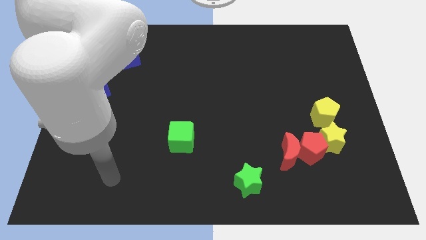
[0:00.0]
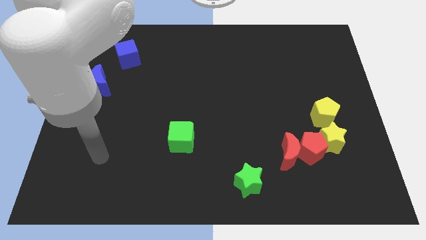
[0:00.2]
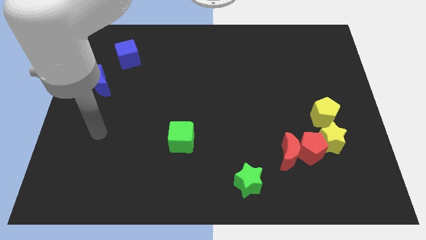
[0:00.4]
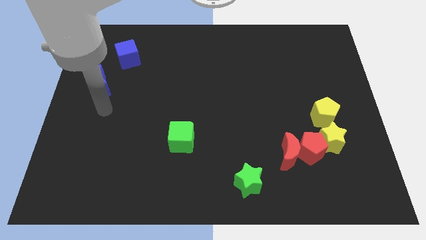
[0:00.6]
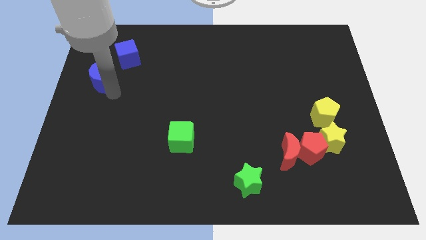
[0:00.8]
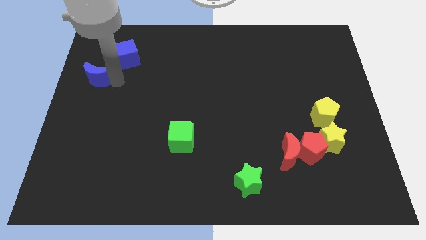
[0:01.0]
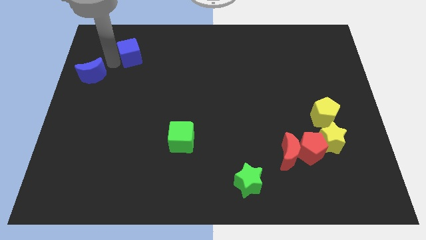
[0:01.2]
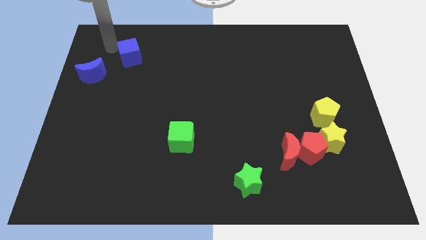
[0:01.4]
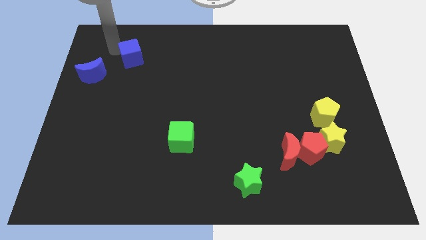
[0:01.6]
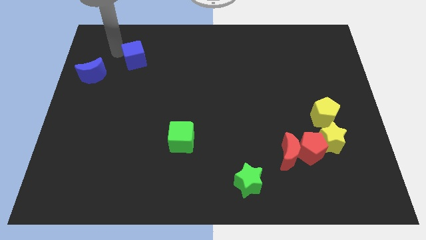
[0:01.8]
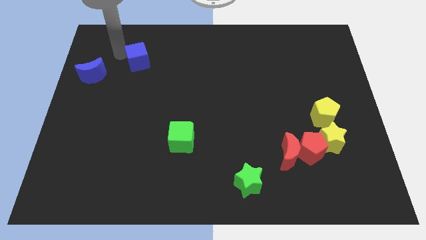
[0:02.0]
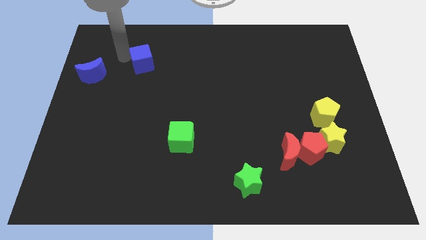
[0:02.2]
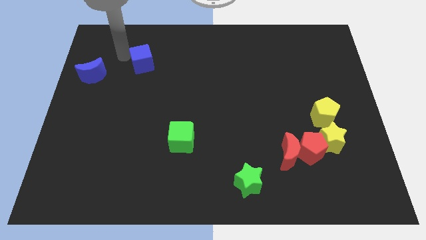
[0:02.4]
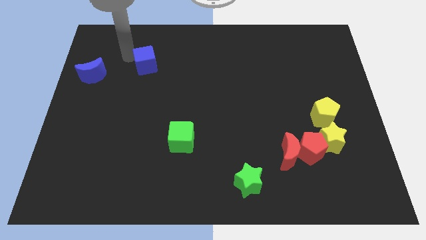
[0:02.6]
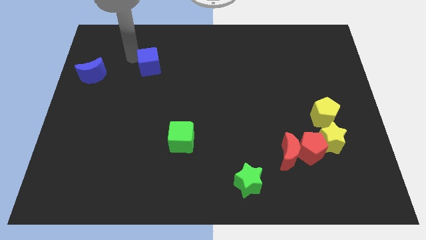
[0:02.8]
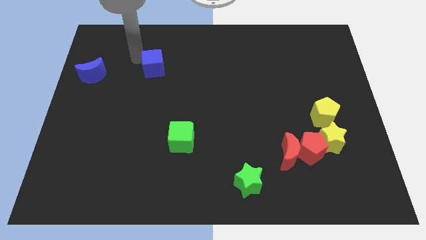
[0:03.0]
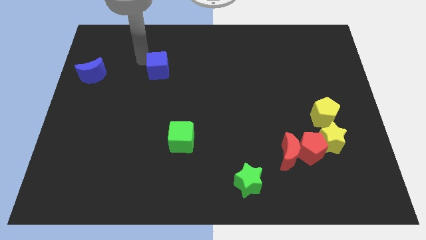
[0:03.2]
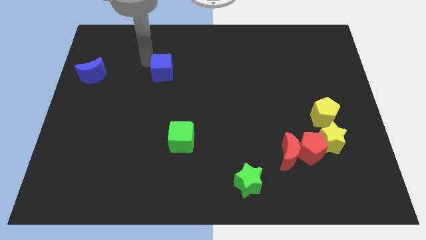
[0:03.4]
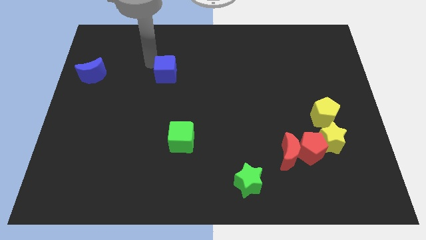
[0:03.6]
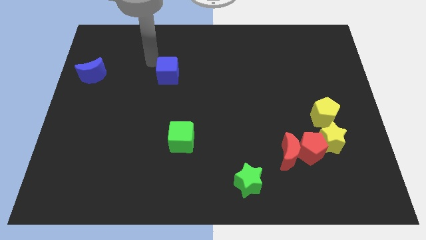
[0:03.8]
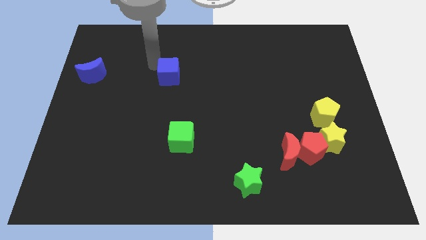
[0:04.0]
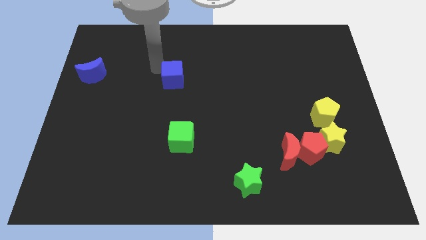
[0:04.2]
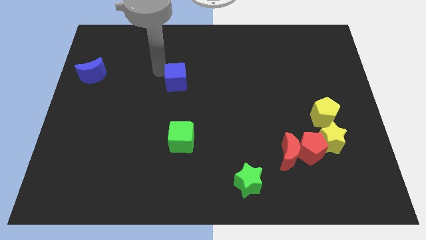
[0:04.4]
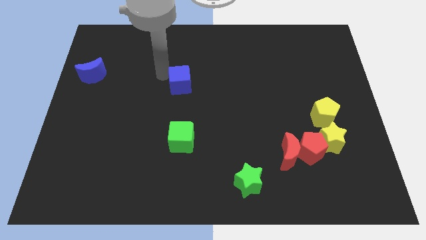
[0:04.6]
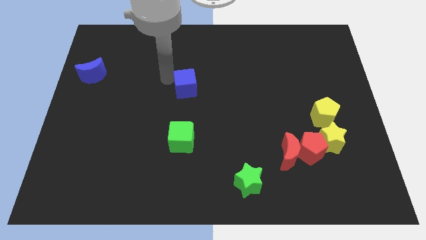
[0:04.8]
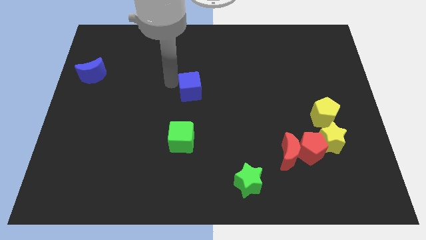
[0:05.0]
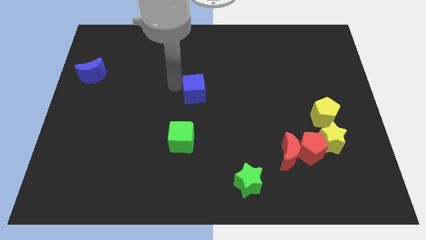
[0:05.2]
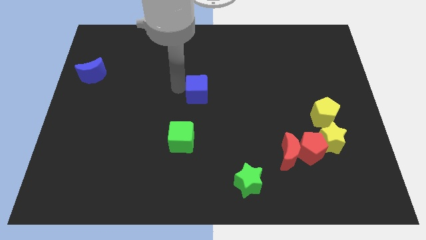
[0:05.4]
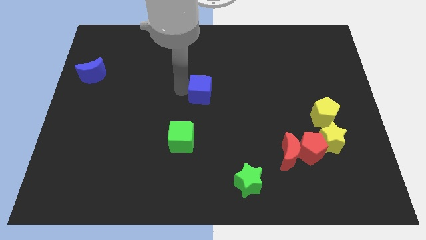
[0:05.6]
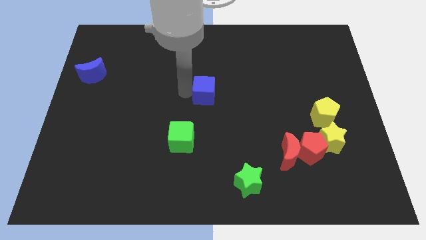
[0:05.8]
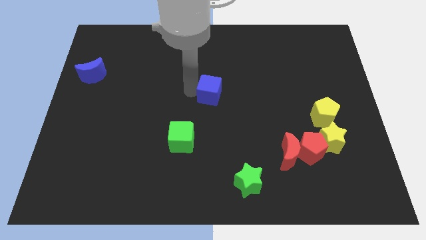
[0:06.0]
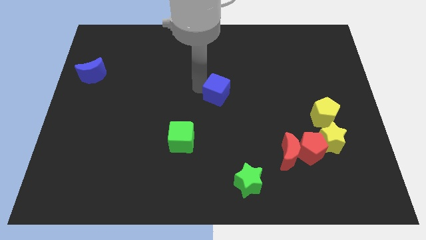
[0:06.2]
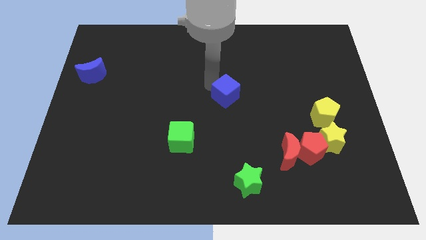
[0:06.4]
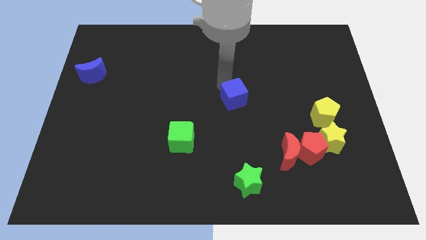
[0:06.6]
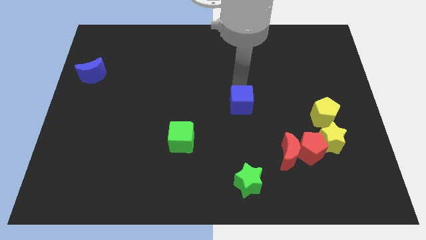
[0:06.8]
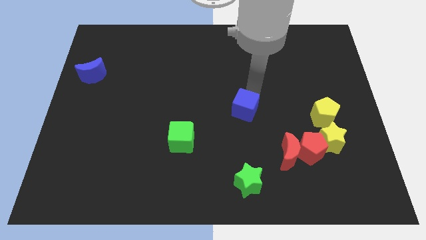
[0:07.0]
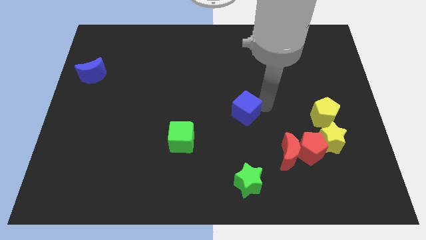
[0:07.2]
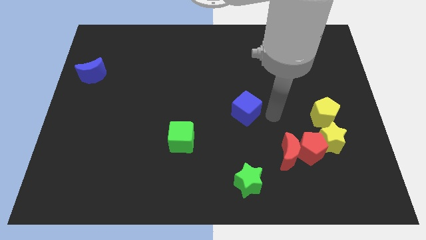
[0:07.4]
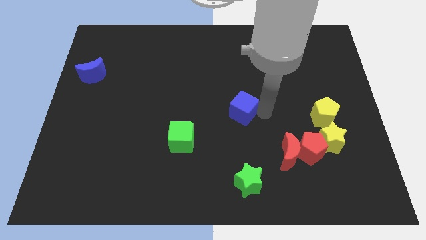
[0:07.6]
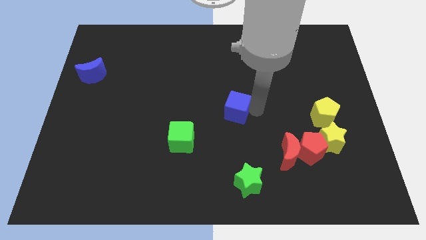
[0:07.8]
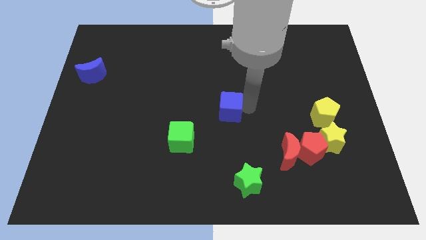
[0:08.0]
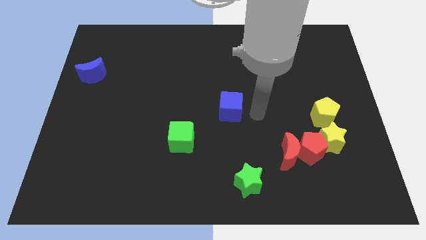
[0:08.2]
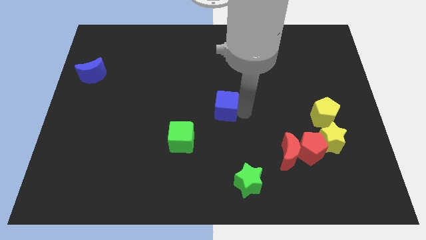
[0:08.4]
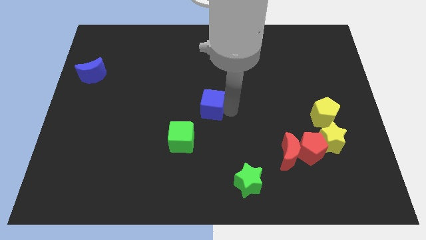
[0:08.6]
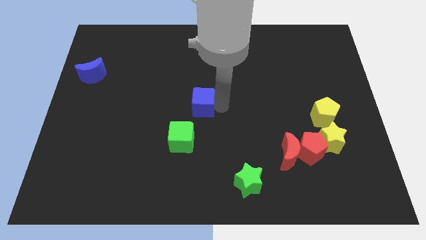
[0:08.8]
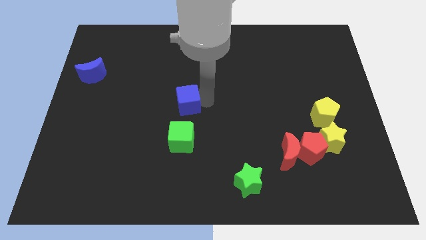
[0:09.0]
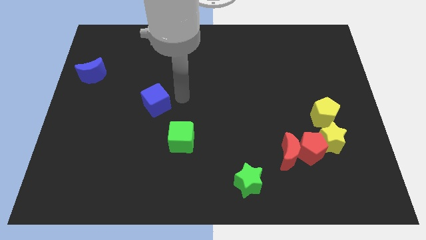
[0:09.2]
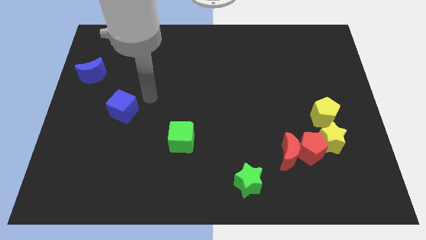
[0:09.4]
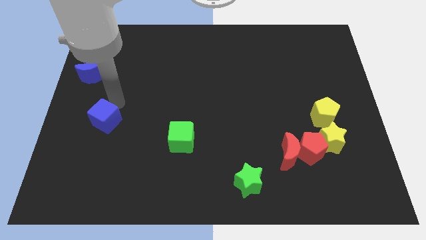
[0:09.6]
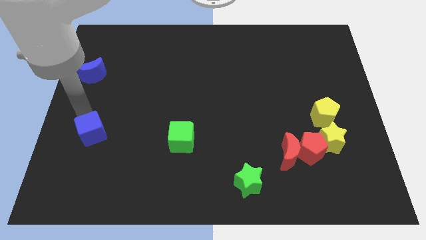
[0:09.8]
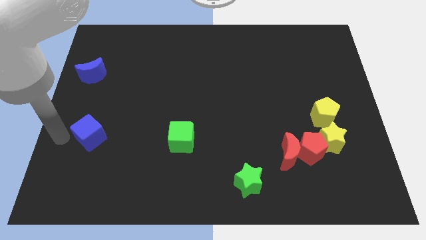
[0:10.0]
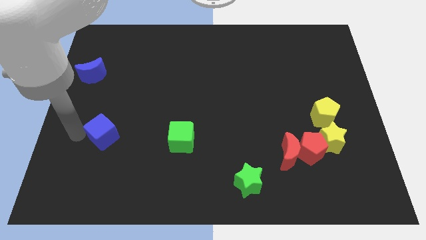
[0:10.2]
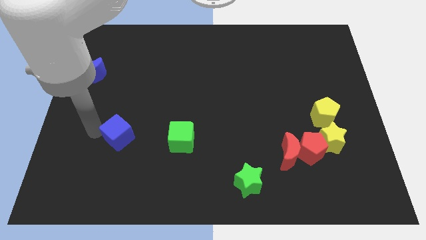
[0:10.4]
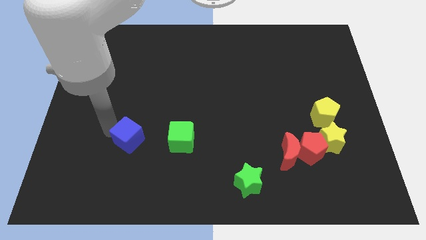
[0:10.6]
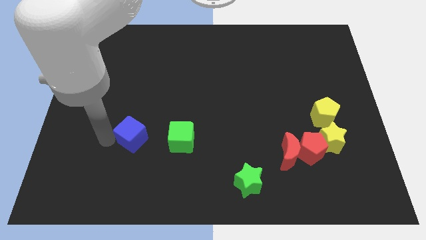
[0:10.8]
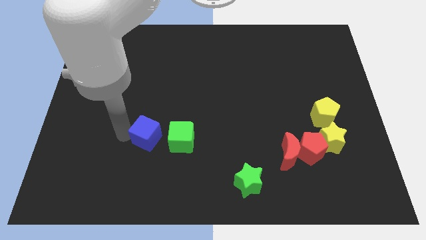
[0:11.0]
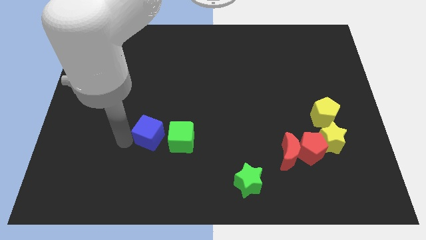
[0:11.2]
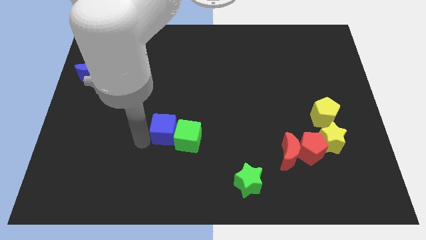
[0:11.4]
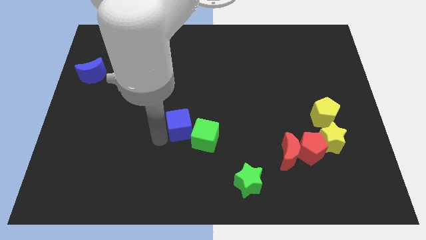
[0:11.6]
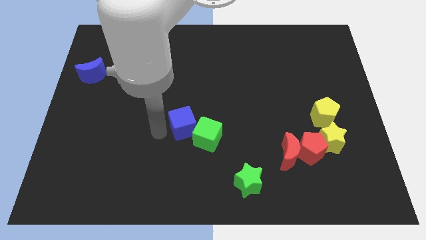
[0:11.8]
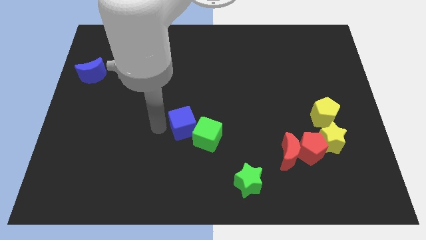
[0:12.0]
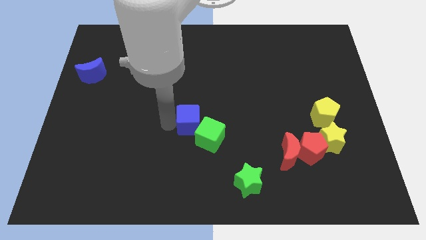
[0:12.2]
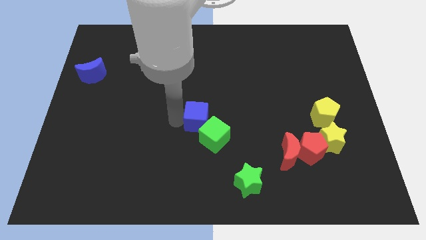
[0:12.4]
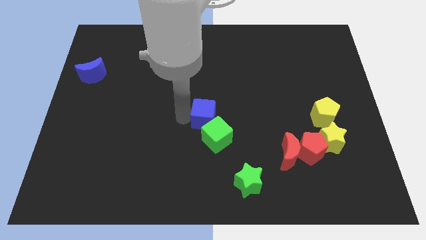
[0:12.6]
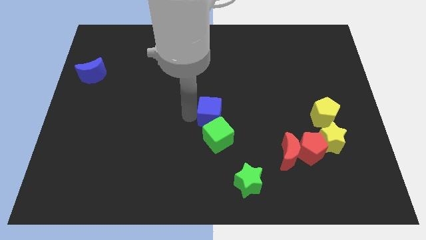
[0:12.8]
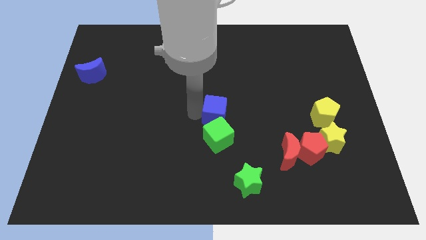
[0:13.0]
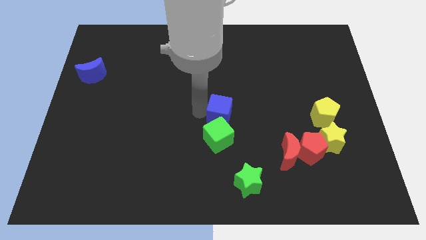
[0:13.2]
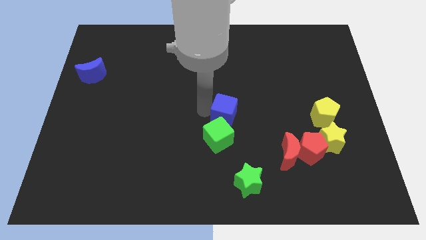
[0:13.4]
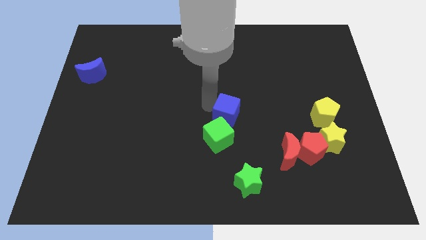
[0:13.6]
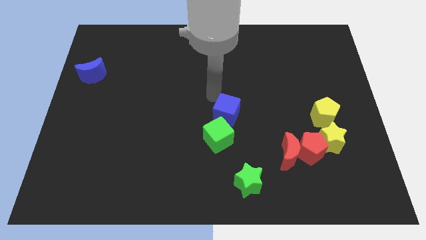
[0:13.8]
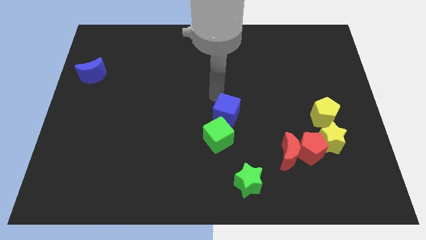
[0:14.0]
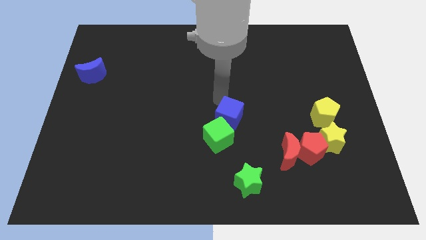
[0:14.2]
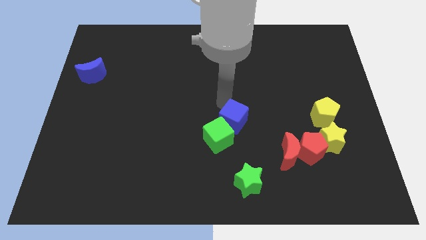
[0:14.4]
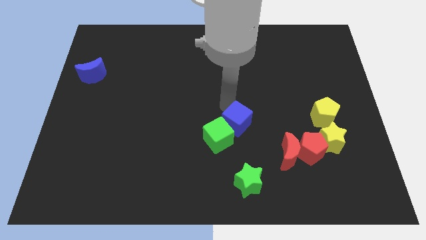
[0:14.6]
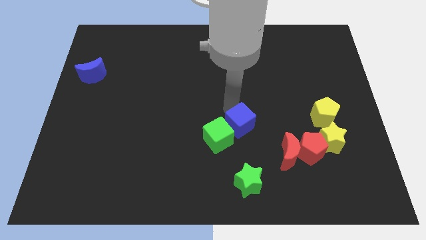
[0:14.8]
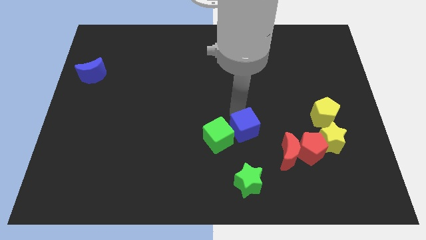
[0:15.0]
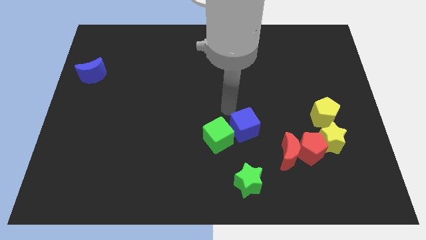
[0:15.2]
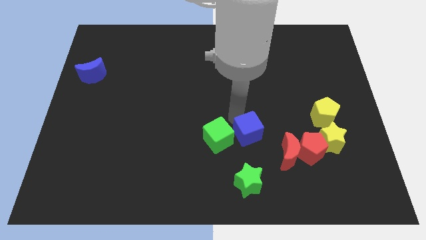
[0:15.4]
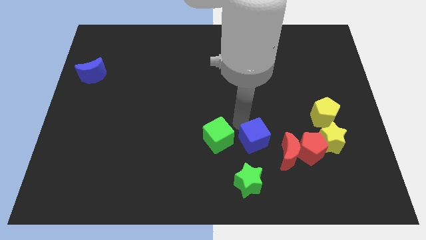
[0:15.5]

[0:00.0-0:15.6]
put the blue cube to the left side of the red pentagon
